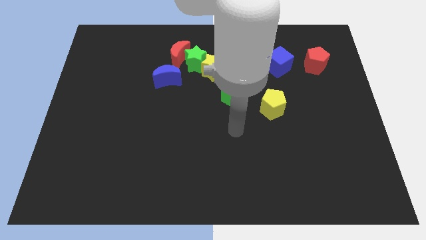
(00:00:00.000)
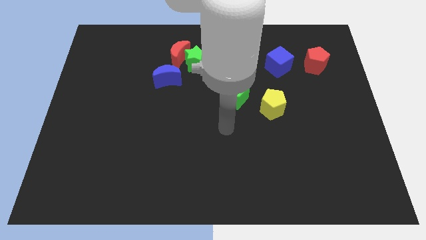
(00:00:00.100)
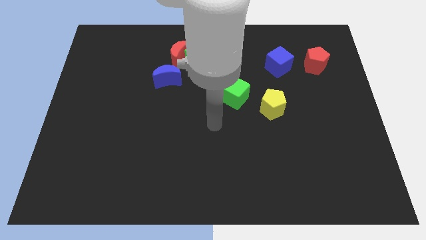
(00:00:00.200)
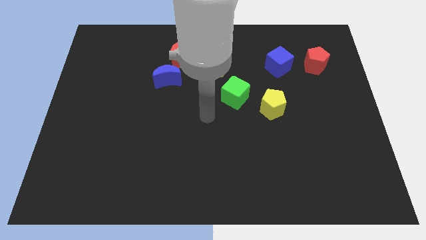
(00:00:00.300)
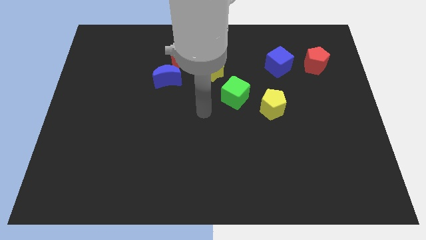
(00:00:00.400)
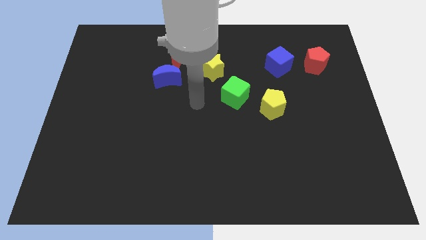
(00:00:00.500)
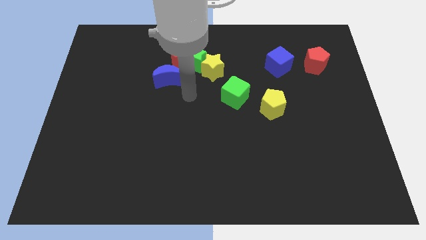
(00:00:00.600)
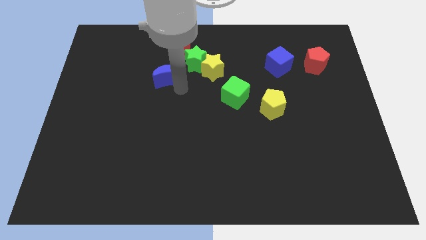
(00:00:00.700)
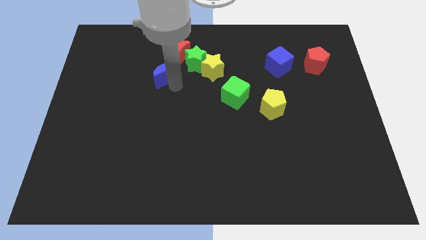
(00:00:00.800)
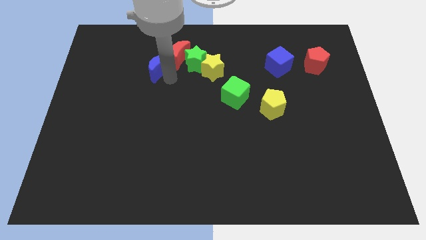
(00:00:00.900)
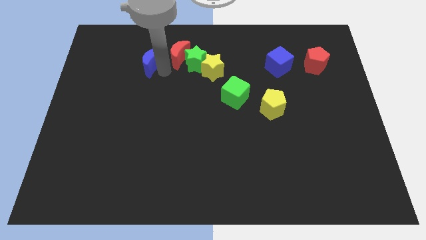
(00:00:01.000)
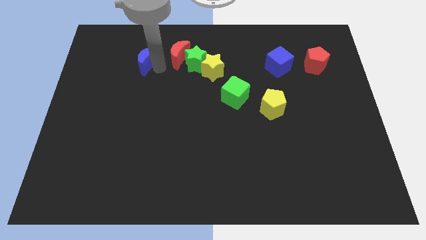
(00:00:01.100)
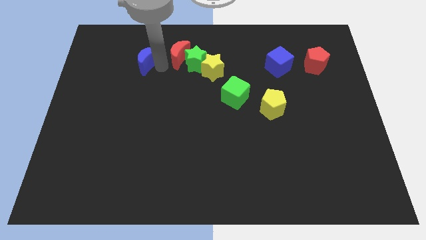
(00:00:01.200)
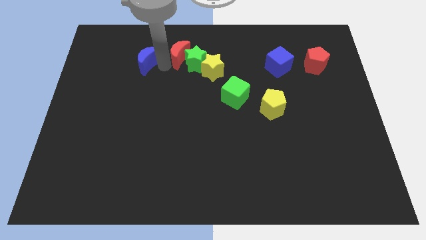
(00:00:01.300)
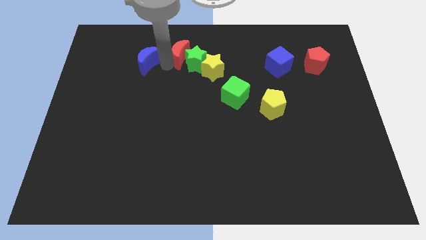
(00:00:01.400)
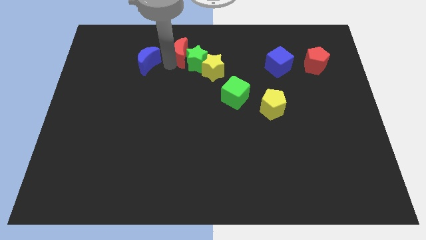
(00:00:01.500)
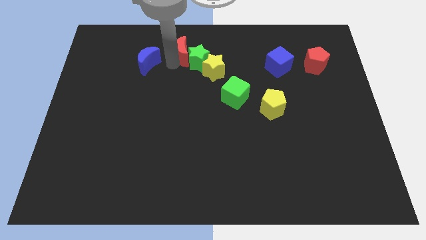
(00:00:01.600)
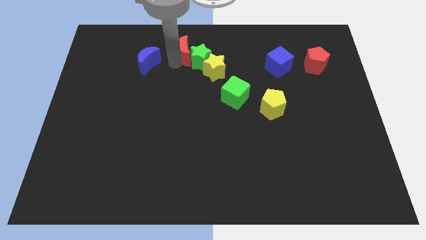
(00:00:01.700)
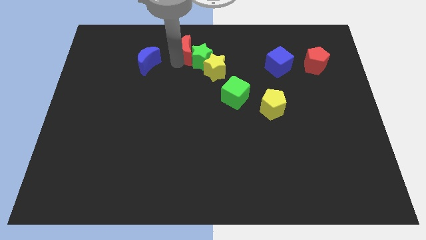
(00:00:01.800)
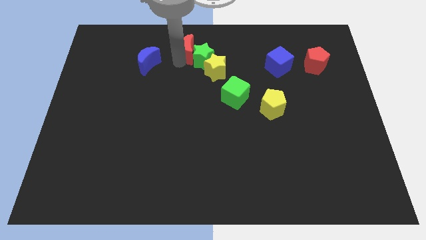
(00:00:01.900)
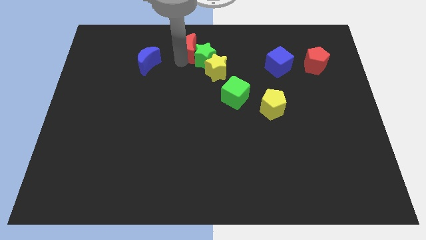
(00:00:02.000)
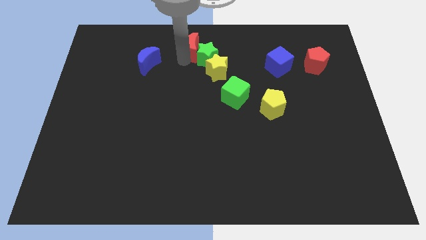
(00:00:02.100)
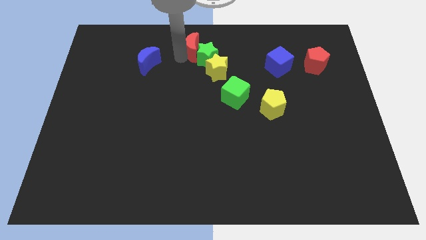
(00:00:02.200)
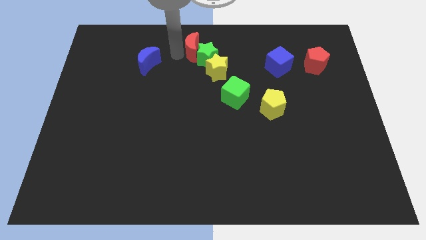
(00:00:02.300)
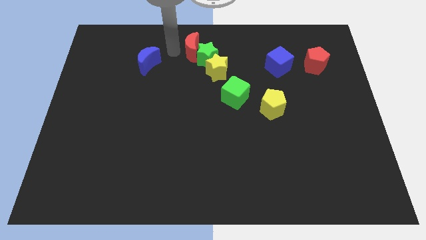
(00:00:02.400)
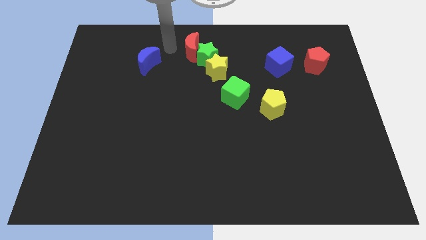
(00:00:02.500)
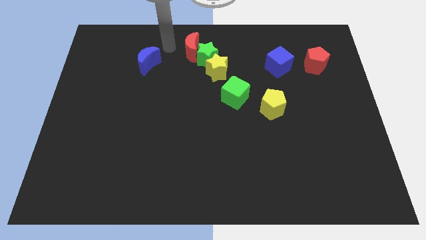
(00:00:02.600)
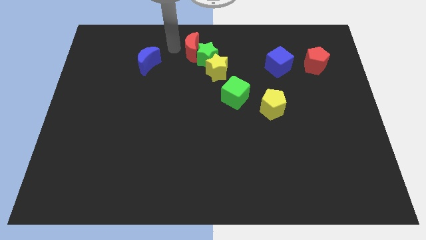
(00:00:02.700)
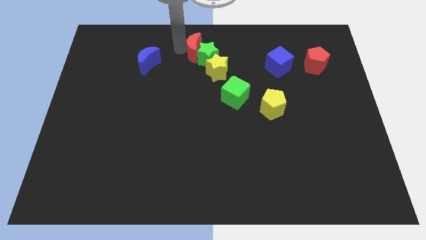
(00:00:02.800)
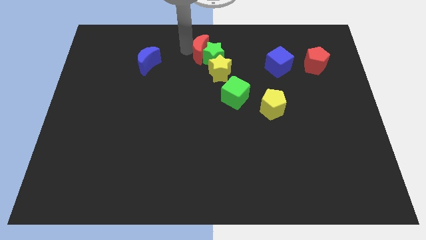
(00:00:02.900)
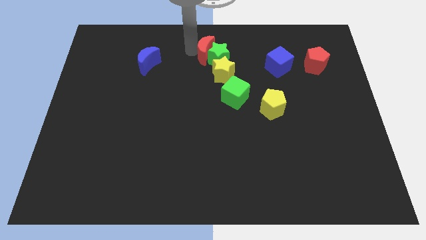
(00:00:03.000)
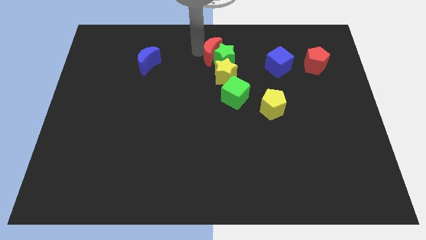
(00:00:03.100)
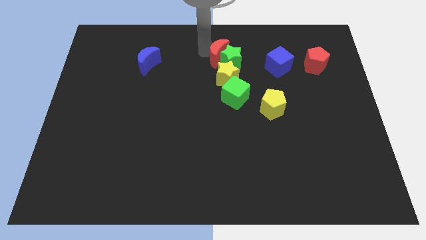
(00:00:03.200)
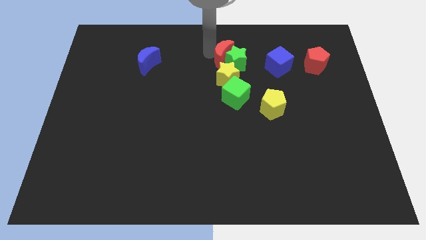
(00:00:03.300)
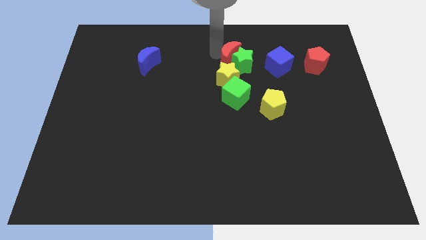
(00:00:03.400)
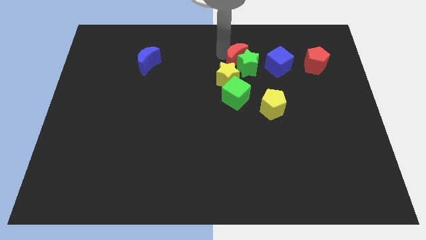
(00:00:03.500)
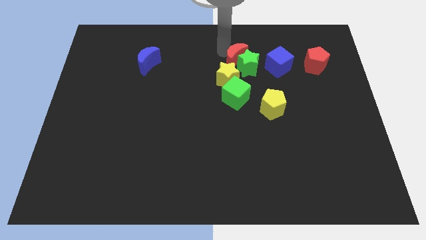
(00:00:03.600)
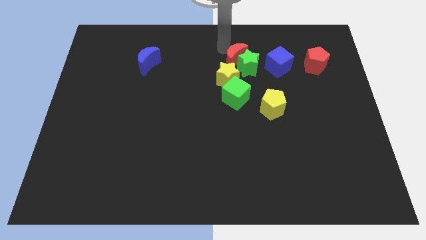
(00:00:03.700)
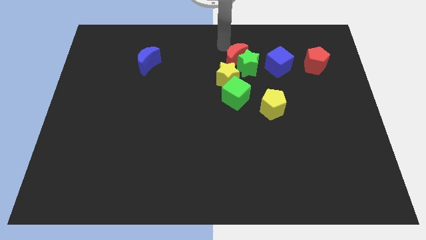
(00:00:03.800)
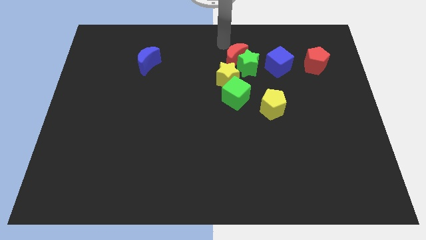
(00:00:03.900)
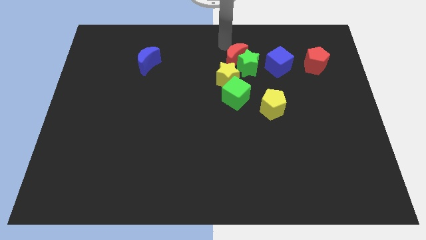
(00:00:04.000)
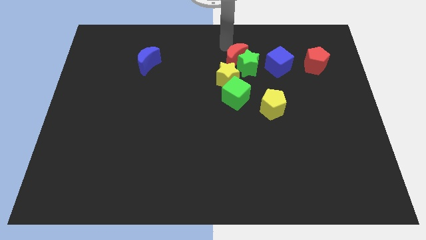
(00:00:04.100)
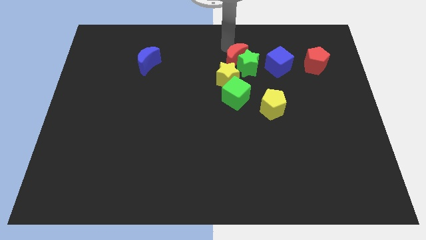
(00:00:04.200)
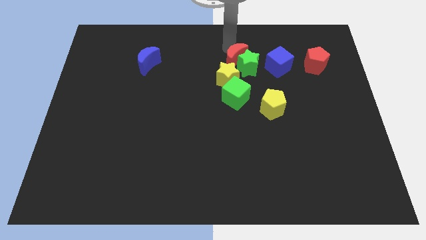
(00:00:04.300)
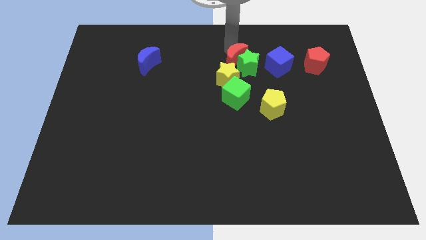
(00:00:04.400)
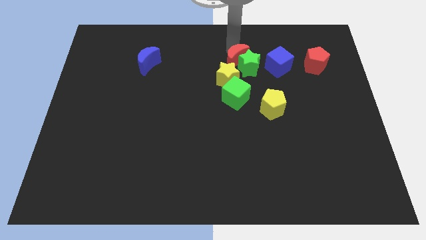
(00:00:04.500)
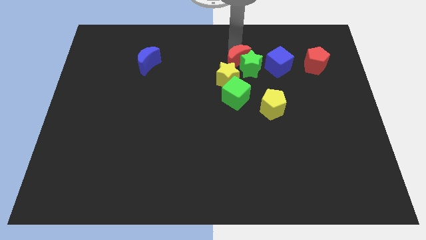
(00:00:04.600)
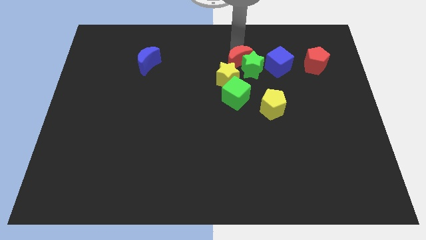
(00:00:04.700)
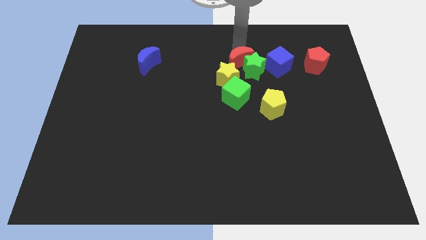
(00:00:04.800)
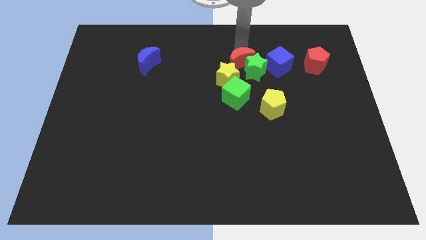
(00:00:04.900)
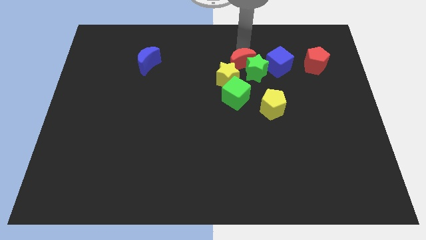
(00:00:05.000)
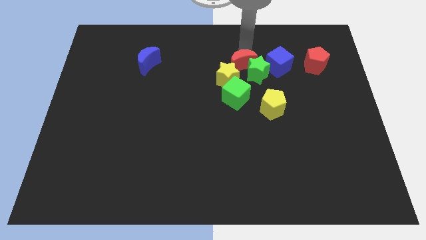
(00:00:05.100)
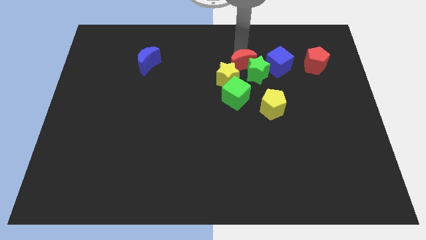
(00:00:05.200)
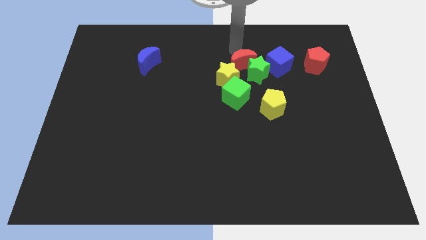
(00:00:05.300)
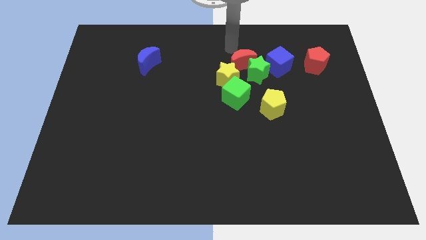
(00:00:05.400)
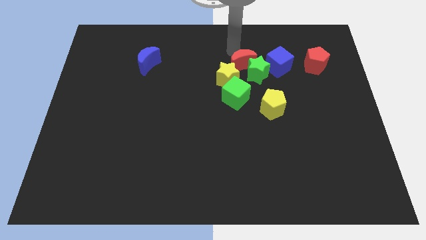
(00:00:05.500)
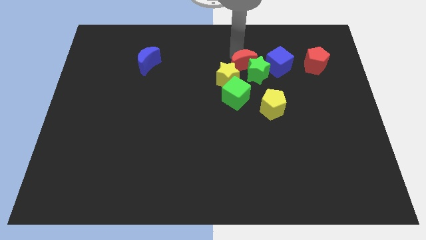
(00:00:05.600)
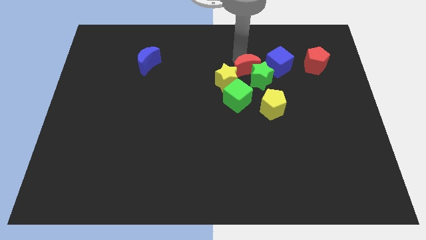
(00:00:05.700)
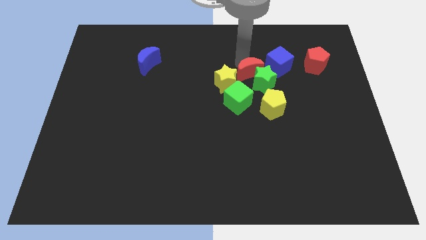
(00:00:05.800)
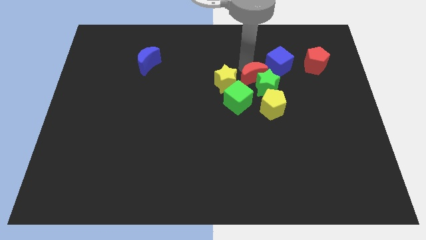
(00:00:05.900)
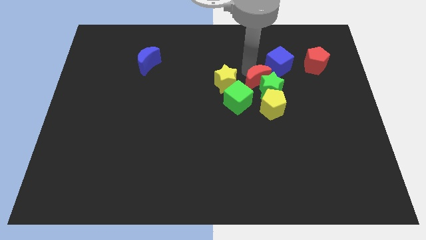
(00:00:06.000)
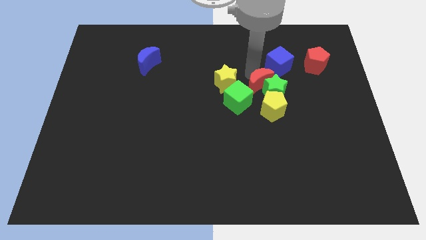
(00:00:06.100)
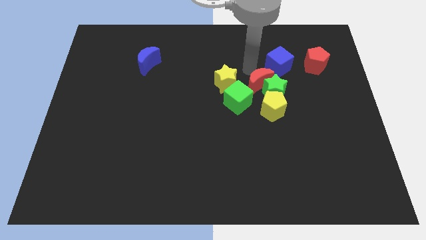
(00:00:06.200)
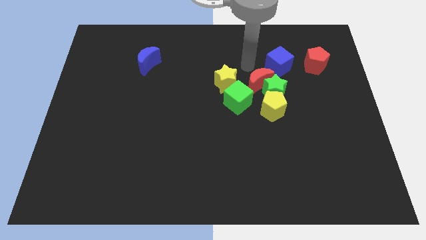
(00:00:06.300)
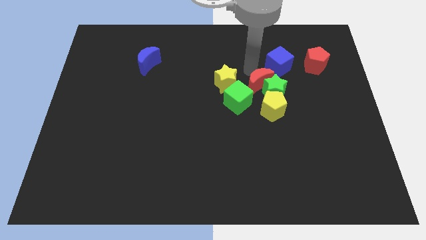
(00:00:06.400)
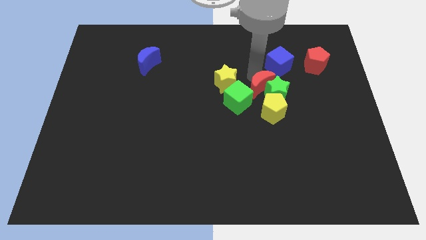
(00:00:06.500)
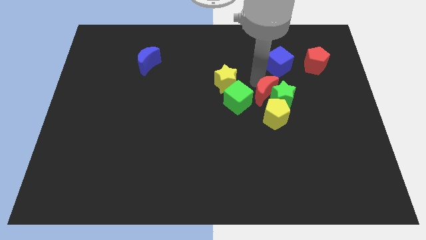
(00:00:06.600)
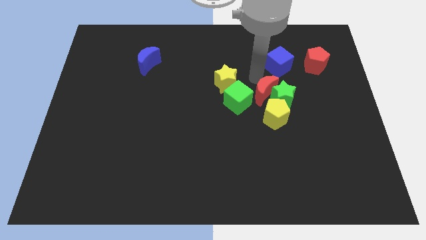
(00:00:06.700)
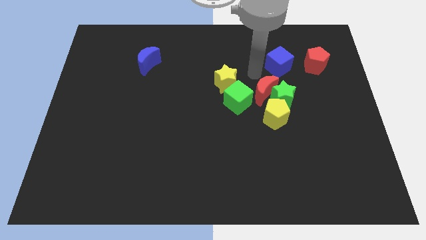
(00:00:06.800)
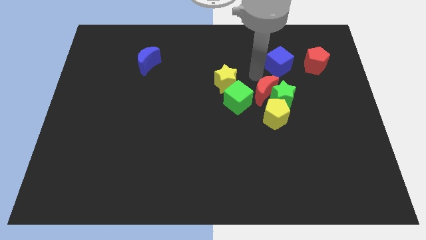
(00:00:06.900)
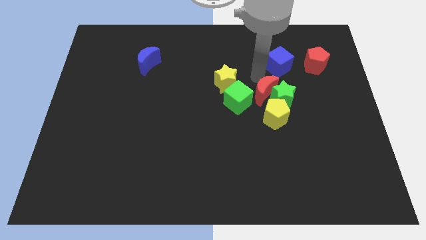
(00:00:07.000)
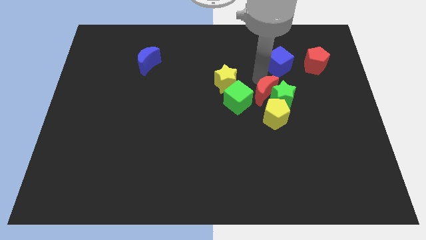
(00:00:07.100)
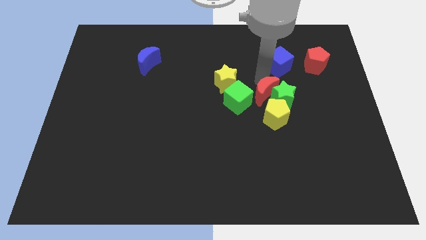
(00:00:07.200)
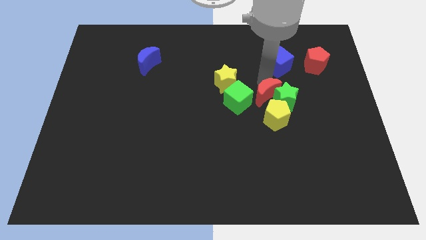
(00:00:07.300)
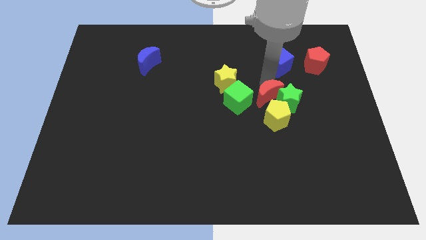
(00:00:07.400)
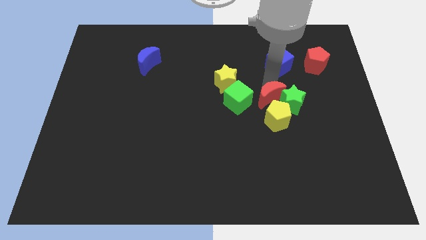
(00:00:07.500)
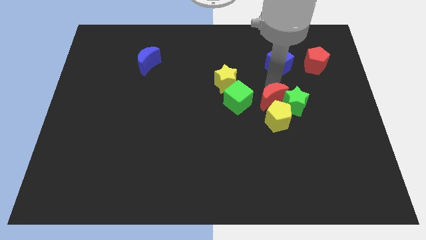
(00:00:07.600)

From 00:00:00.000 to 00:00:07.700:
slide the red moon close to the yellow pentagon
